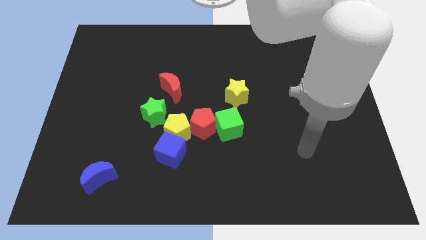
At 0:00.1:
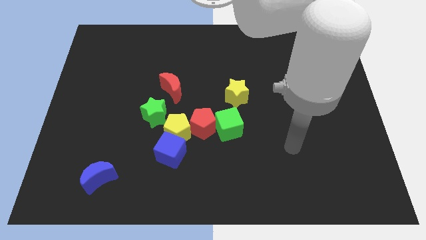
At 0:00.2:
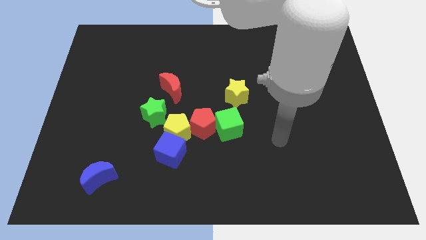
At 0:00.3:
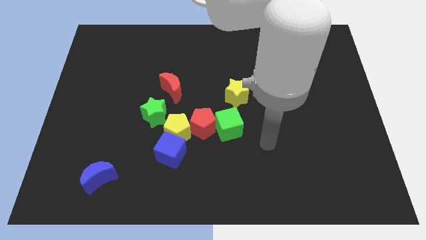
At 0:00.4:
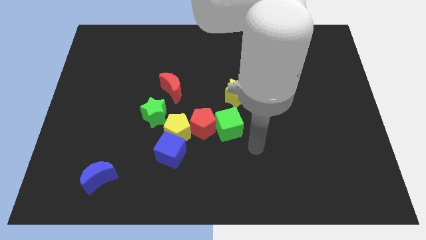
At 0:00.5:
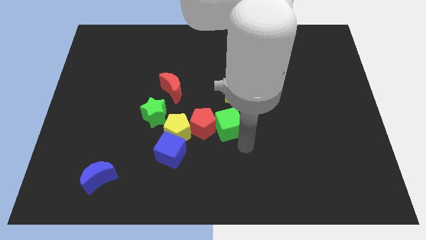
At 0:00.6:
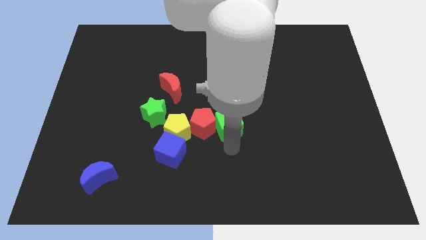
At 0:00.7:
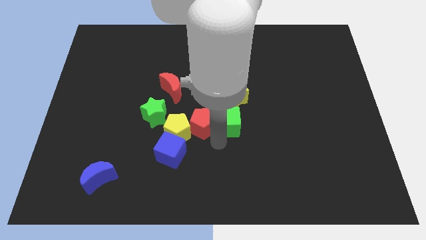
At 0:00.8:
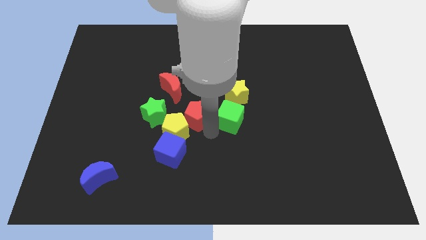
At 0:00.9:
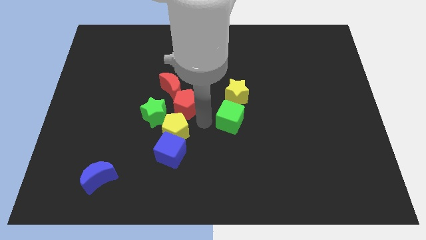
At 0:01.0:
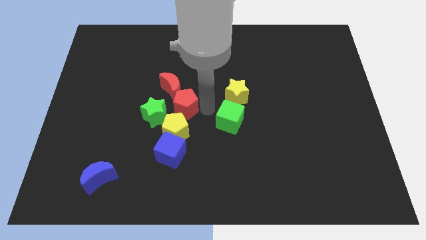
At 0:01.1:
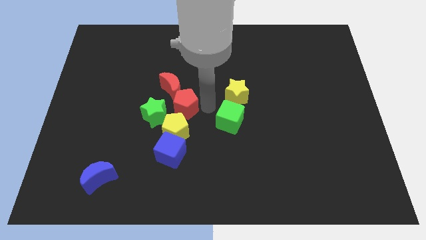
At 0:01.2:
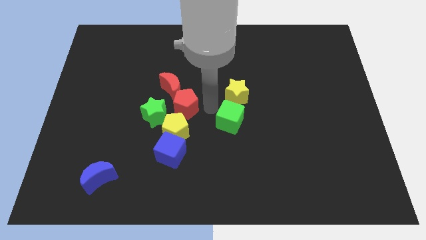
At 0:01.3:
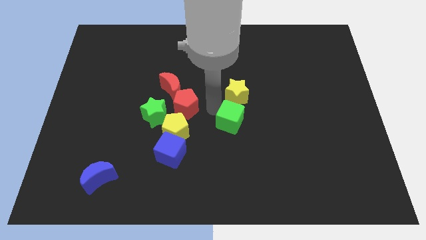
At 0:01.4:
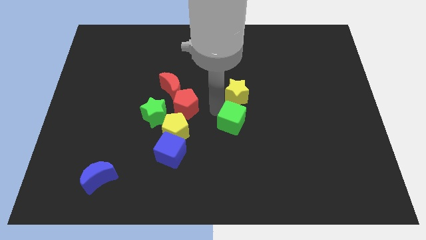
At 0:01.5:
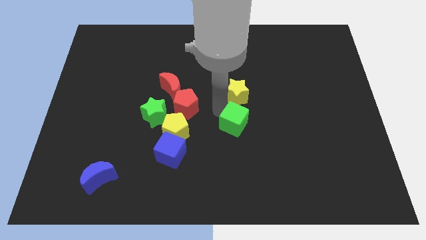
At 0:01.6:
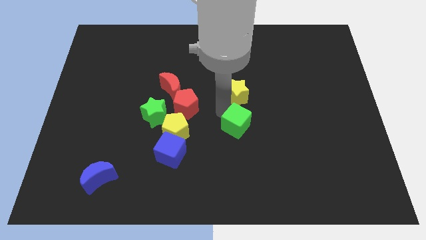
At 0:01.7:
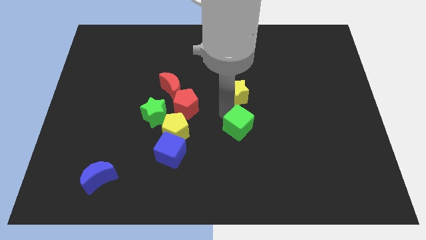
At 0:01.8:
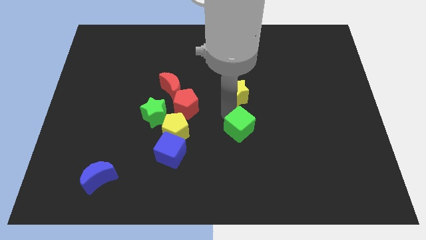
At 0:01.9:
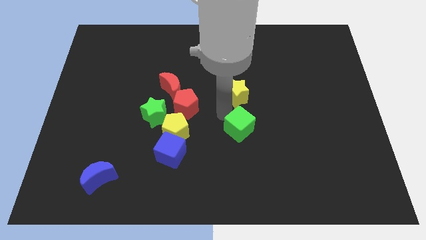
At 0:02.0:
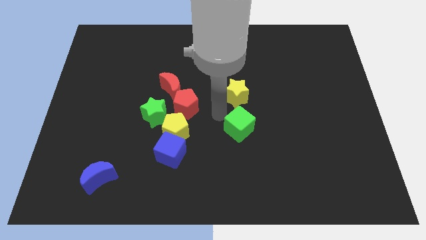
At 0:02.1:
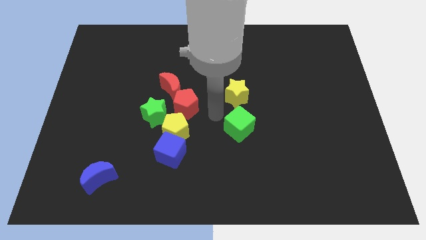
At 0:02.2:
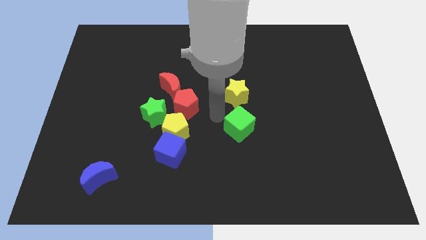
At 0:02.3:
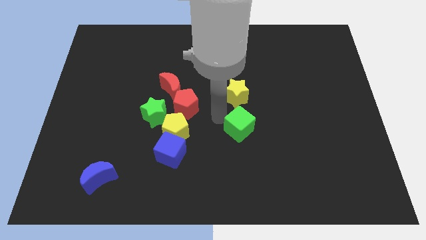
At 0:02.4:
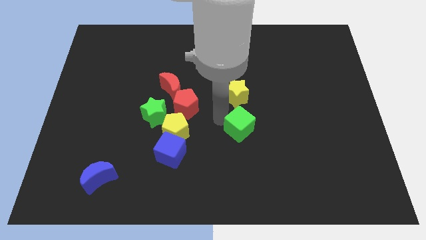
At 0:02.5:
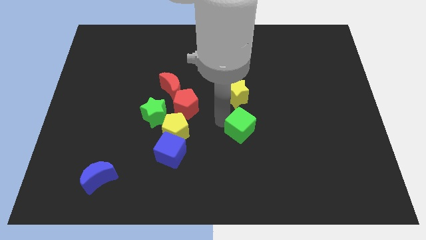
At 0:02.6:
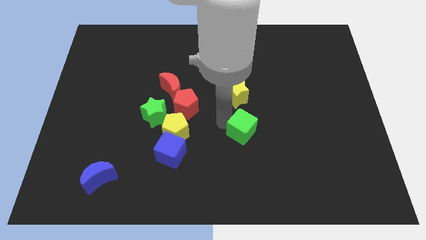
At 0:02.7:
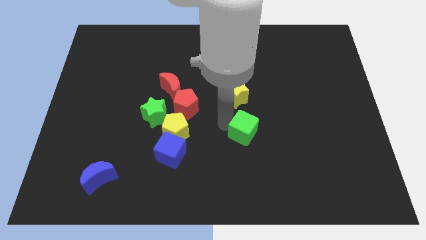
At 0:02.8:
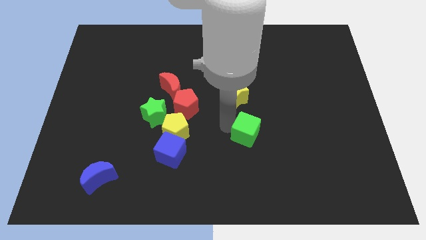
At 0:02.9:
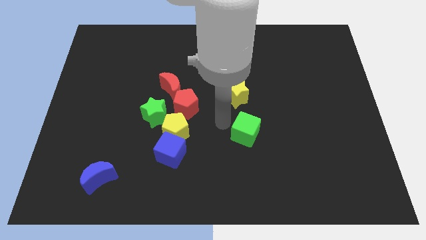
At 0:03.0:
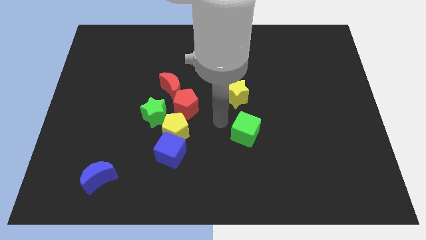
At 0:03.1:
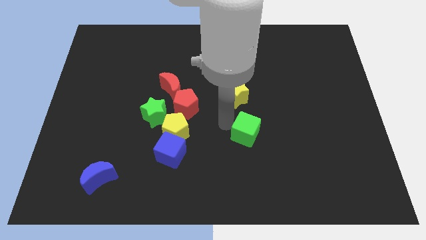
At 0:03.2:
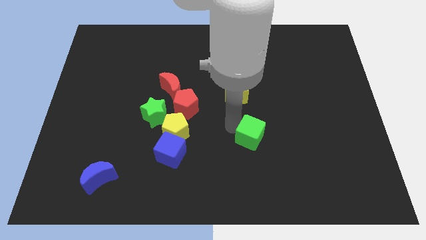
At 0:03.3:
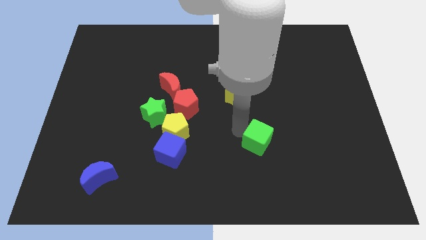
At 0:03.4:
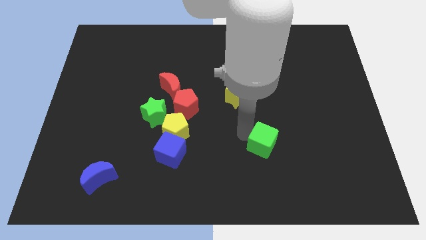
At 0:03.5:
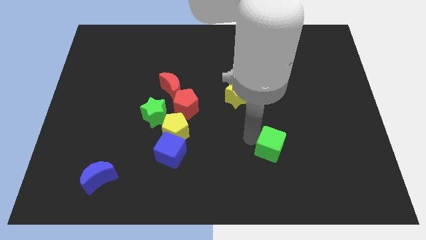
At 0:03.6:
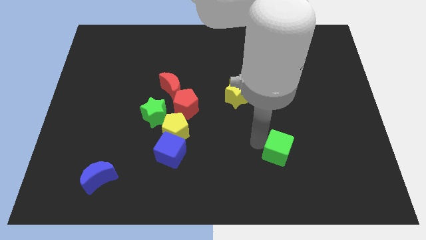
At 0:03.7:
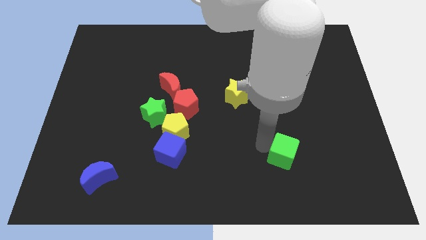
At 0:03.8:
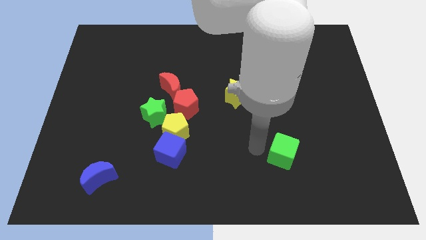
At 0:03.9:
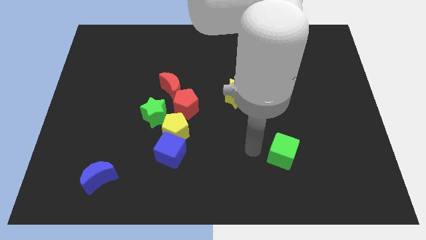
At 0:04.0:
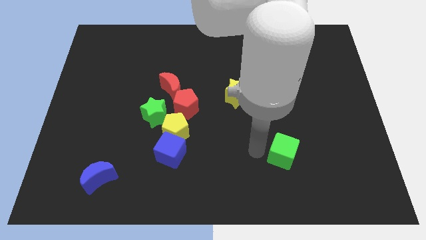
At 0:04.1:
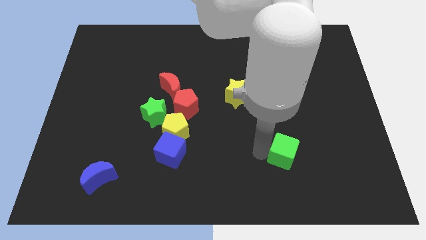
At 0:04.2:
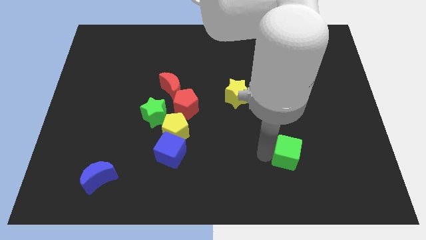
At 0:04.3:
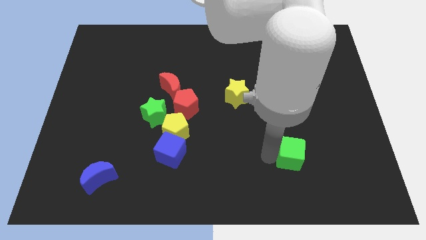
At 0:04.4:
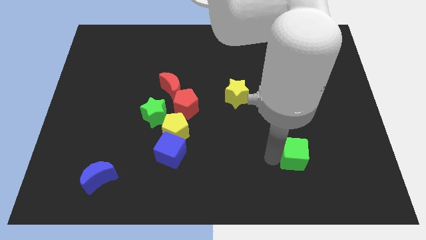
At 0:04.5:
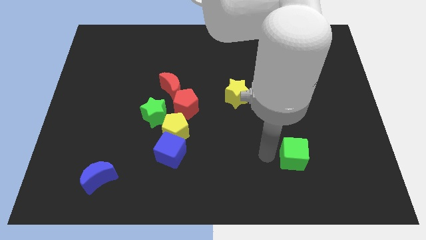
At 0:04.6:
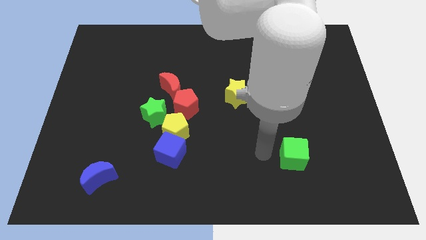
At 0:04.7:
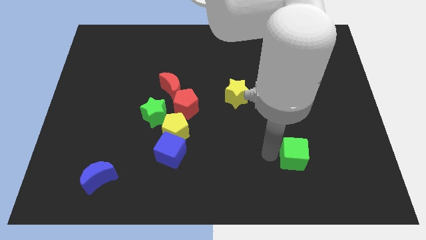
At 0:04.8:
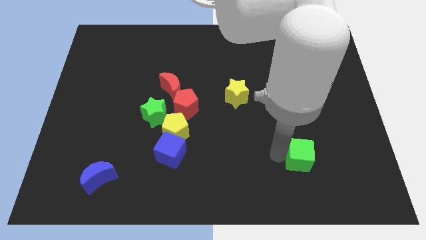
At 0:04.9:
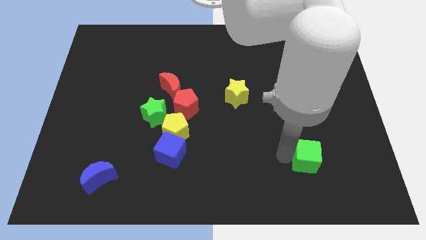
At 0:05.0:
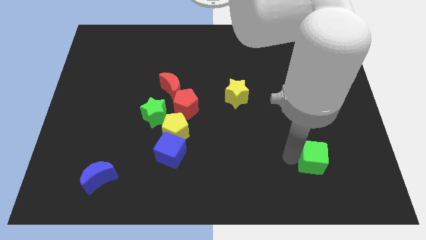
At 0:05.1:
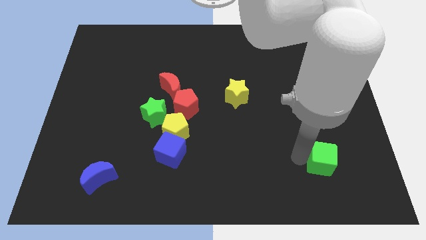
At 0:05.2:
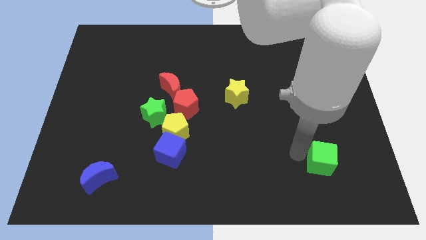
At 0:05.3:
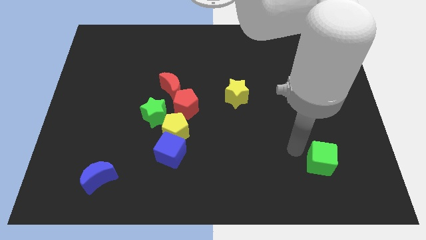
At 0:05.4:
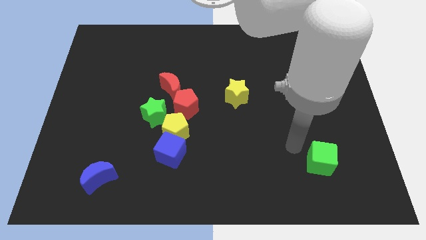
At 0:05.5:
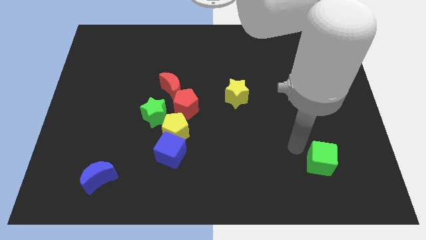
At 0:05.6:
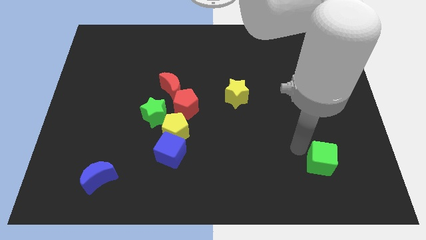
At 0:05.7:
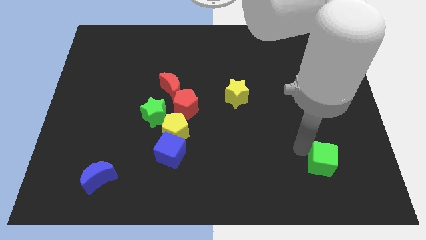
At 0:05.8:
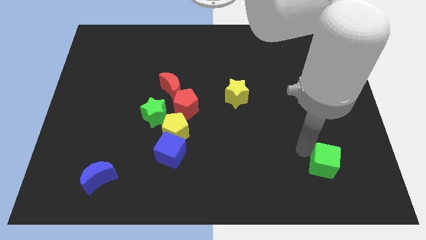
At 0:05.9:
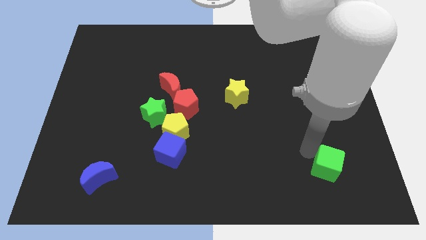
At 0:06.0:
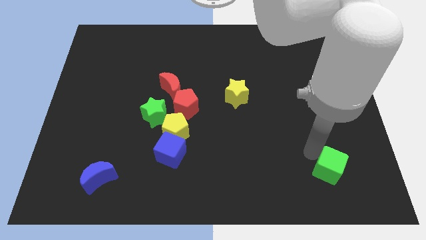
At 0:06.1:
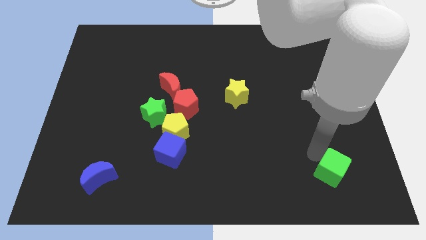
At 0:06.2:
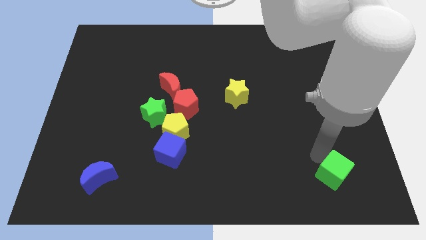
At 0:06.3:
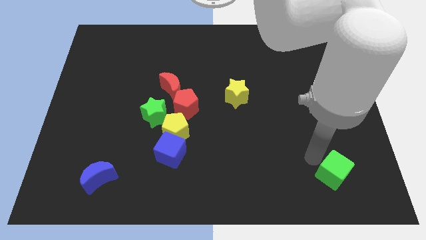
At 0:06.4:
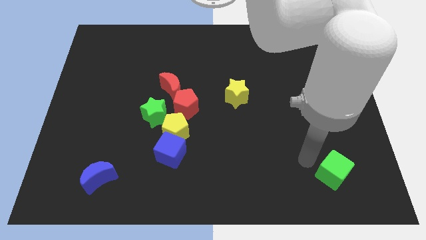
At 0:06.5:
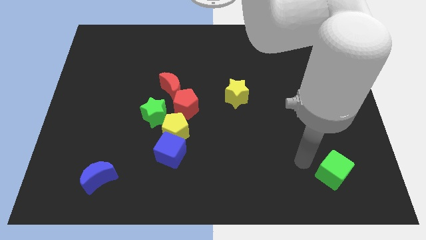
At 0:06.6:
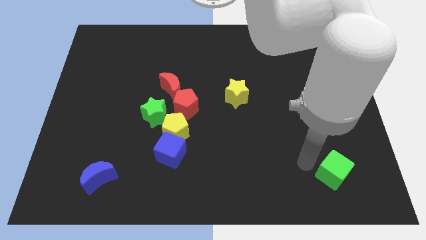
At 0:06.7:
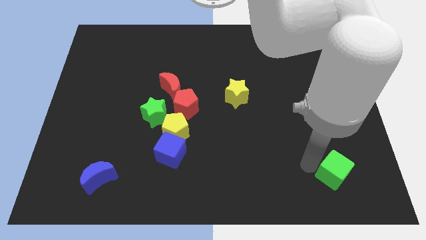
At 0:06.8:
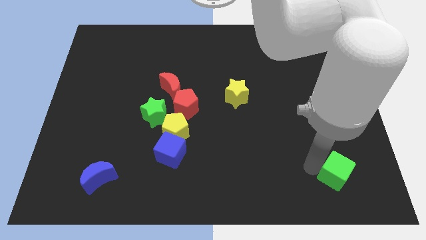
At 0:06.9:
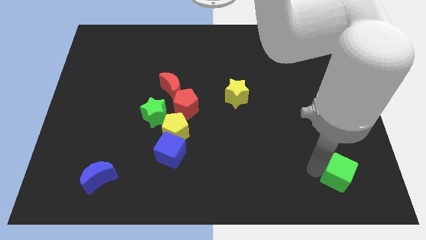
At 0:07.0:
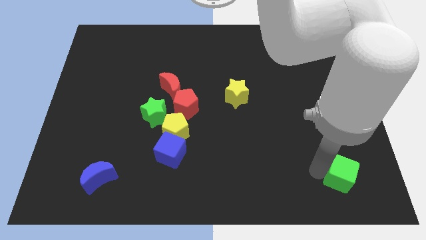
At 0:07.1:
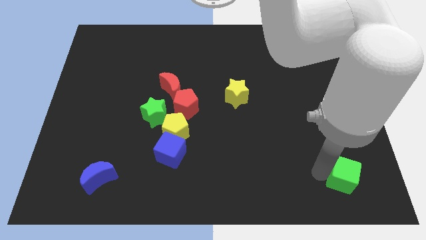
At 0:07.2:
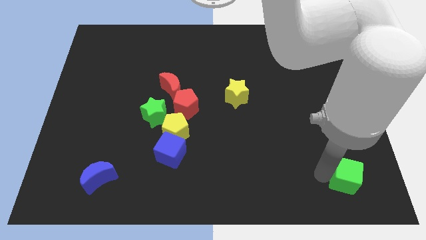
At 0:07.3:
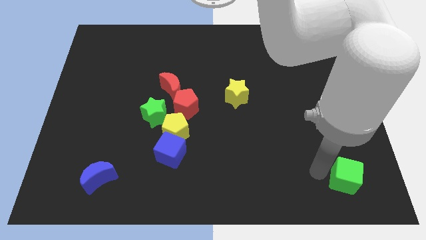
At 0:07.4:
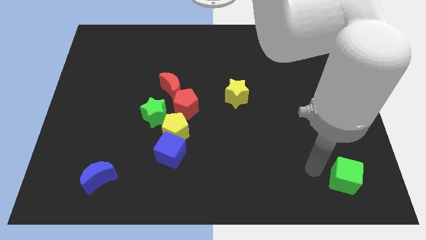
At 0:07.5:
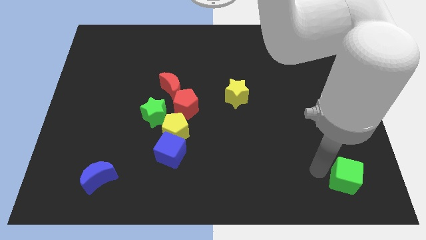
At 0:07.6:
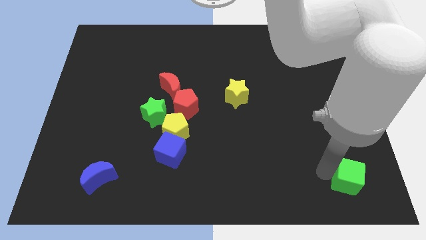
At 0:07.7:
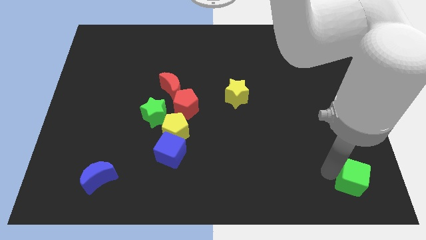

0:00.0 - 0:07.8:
put the green cube to the bottom right
